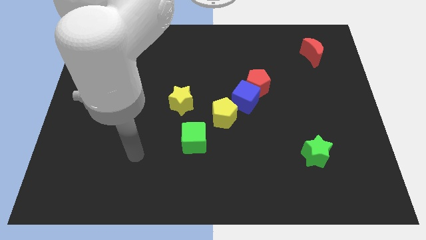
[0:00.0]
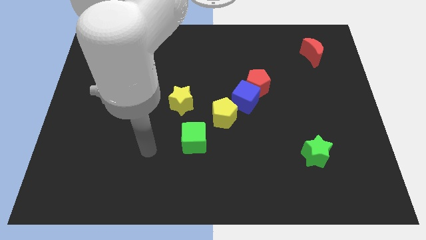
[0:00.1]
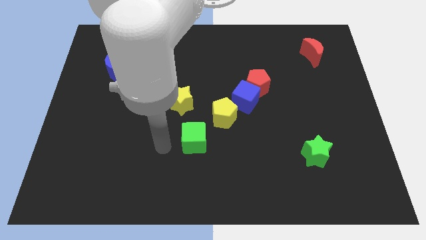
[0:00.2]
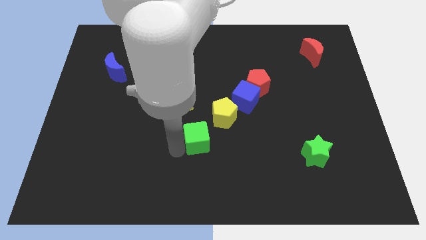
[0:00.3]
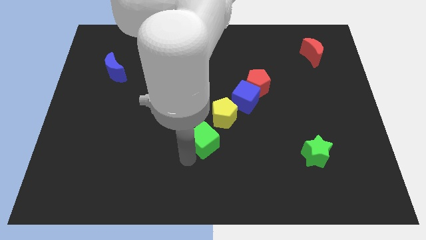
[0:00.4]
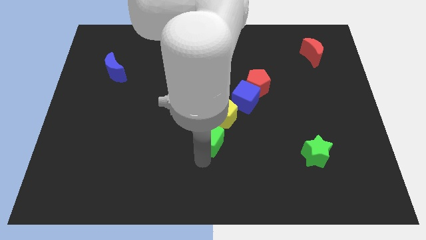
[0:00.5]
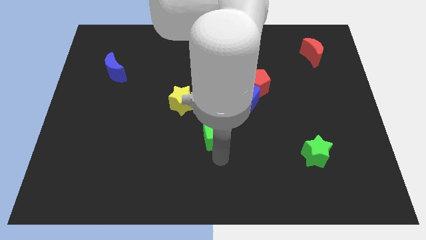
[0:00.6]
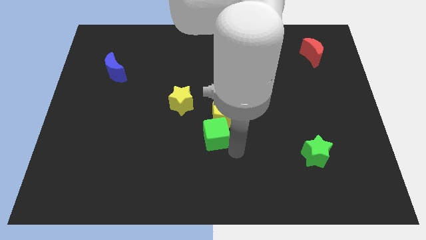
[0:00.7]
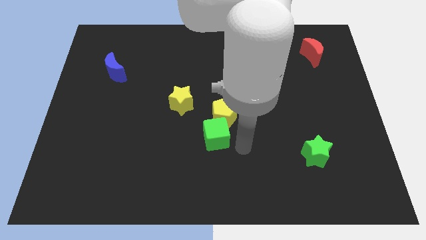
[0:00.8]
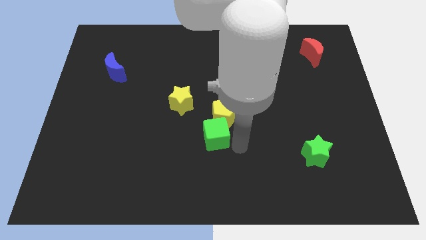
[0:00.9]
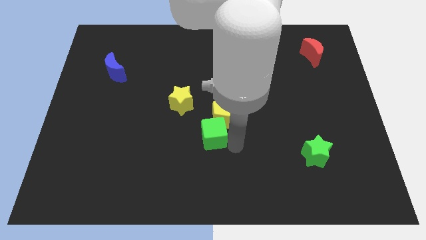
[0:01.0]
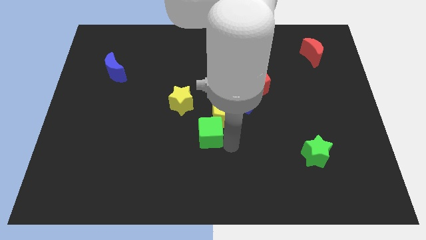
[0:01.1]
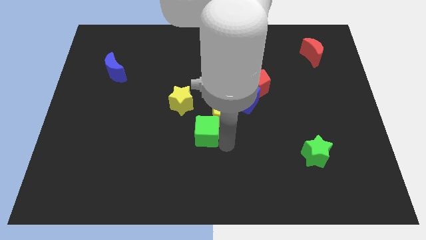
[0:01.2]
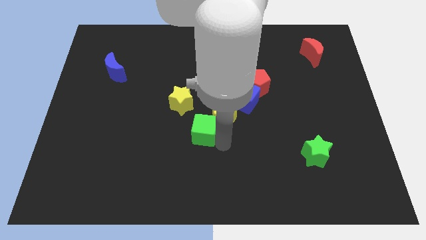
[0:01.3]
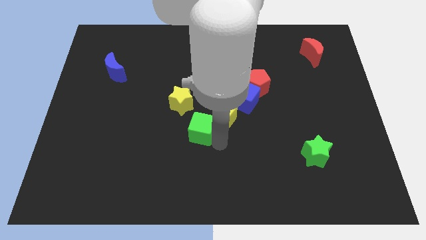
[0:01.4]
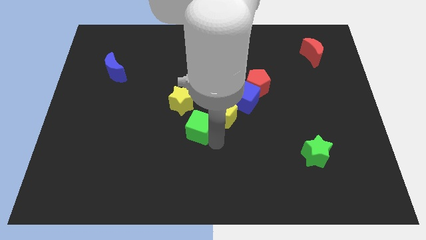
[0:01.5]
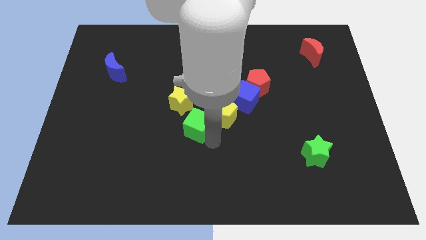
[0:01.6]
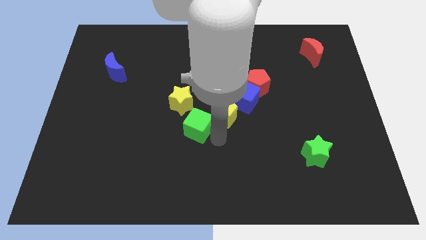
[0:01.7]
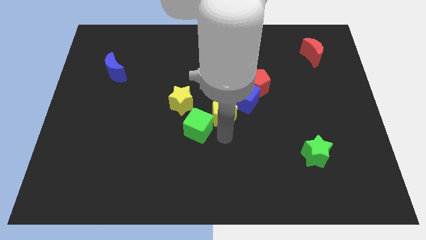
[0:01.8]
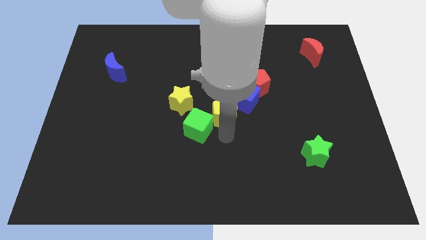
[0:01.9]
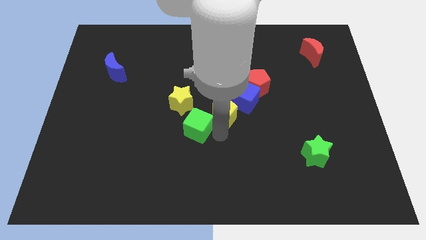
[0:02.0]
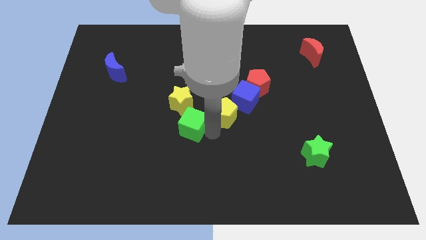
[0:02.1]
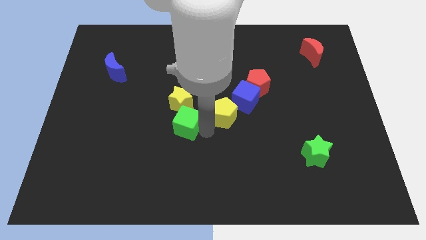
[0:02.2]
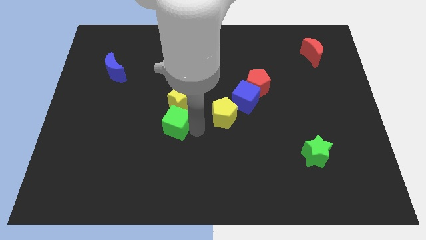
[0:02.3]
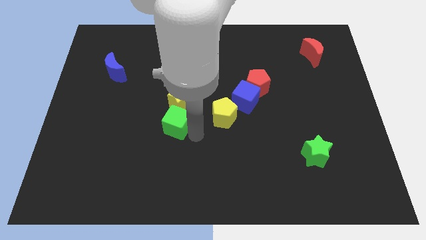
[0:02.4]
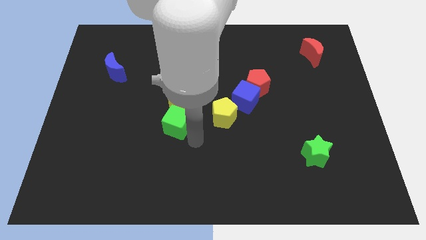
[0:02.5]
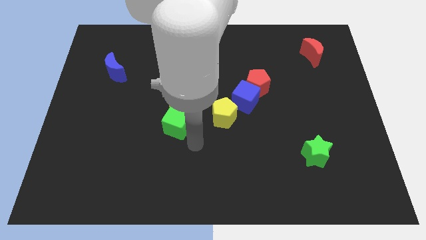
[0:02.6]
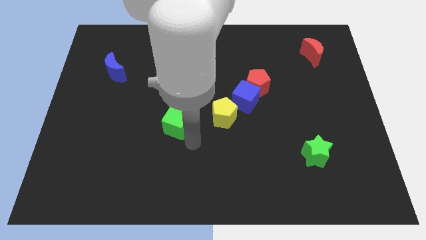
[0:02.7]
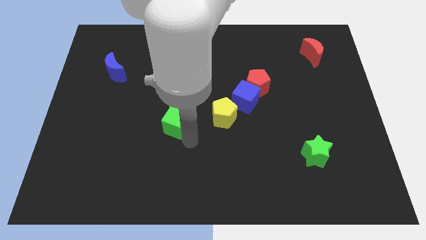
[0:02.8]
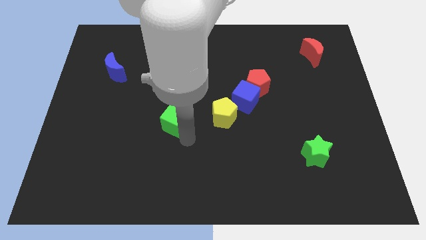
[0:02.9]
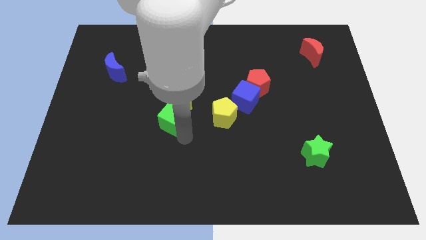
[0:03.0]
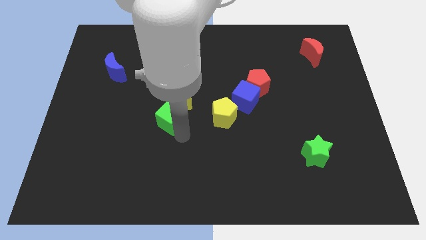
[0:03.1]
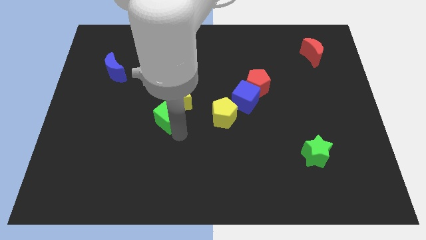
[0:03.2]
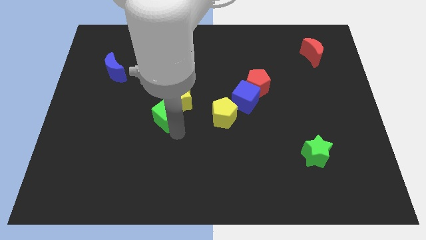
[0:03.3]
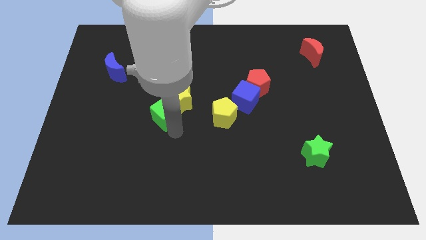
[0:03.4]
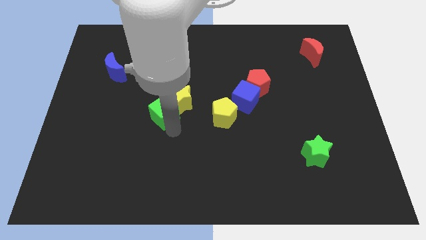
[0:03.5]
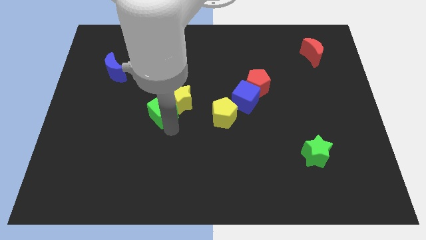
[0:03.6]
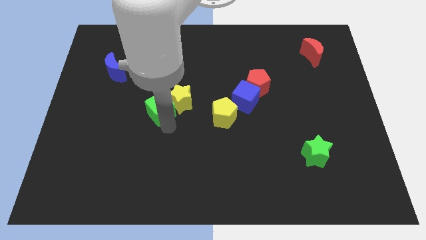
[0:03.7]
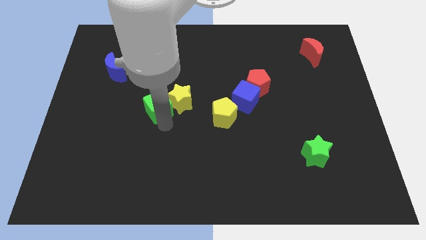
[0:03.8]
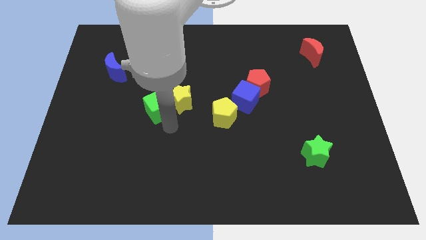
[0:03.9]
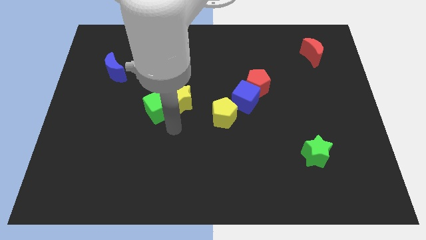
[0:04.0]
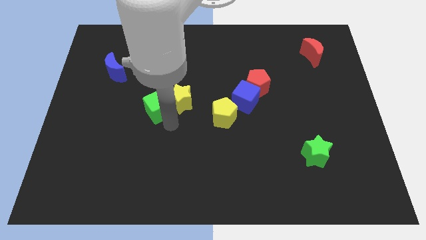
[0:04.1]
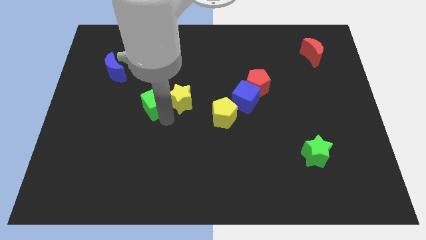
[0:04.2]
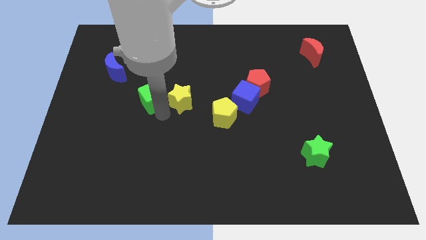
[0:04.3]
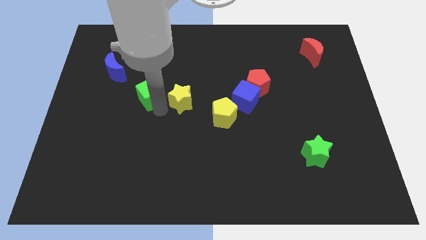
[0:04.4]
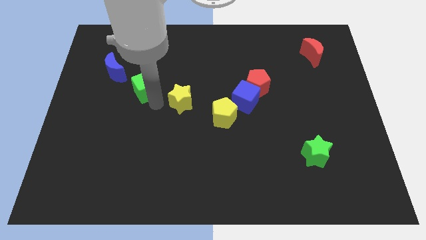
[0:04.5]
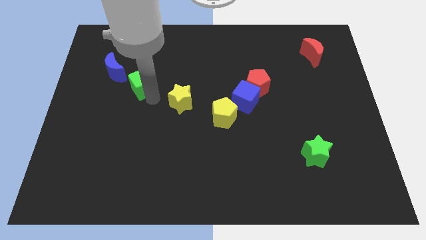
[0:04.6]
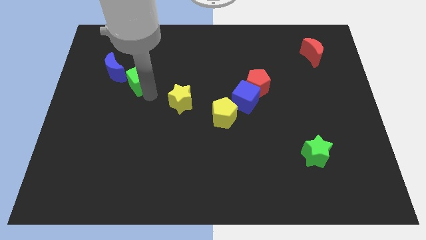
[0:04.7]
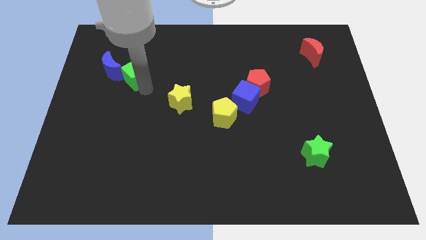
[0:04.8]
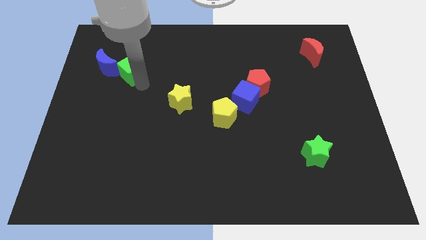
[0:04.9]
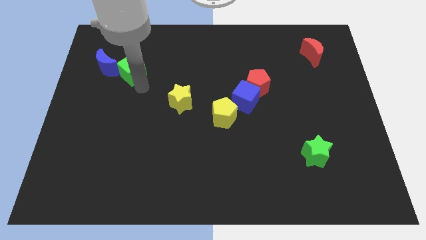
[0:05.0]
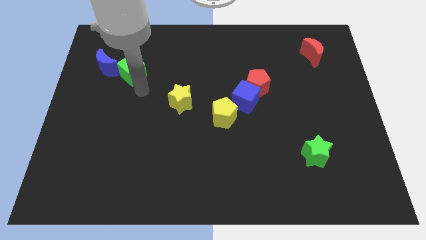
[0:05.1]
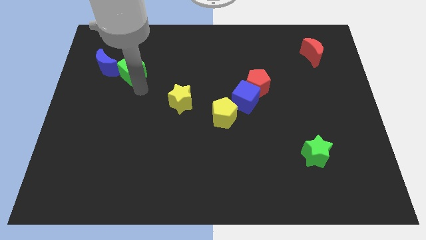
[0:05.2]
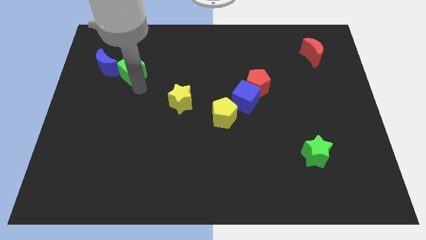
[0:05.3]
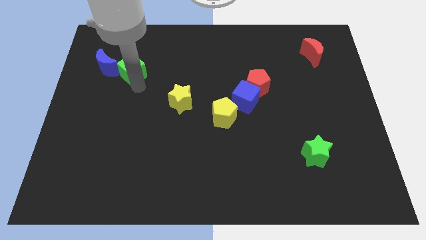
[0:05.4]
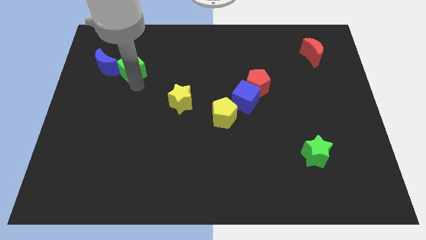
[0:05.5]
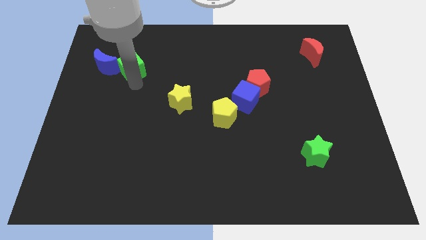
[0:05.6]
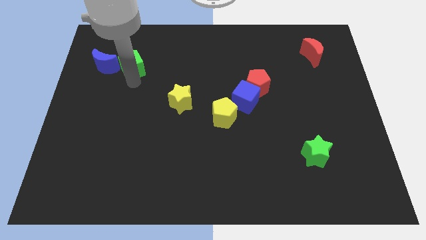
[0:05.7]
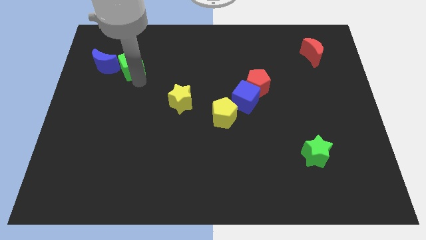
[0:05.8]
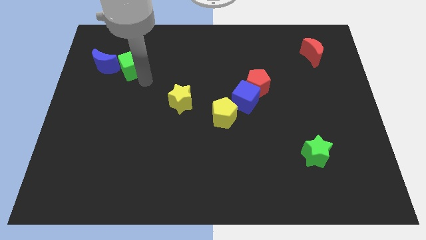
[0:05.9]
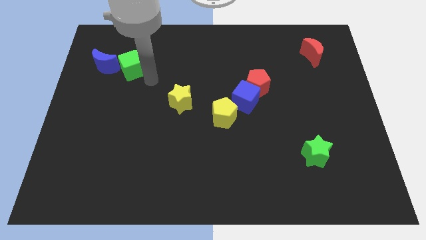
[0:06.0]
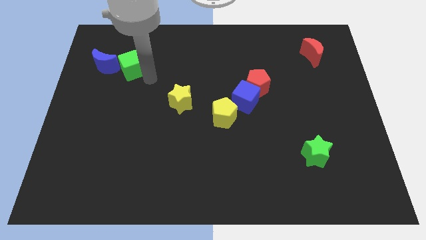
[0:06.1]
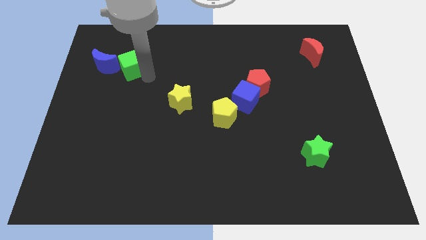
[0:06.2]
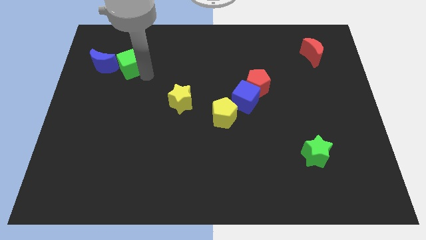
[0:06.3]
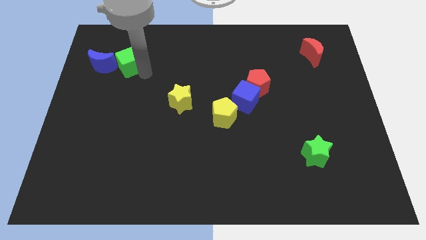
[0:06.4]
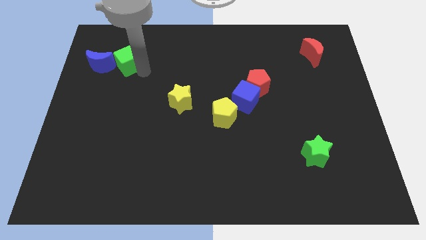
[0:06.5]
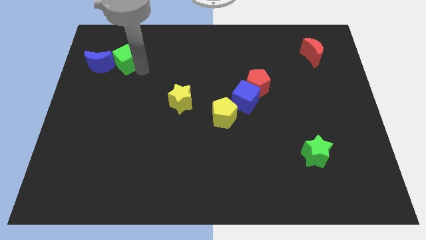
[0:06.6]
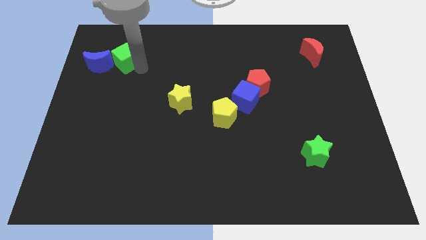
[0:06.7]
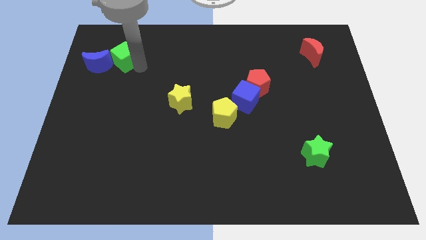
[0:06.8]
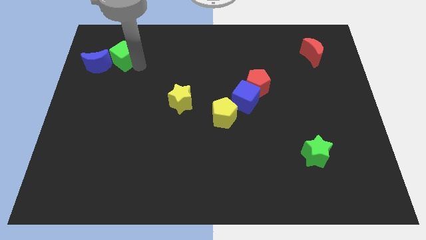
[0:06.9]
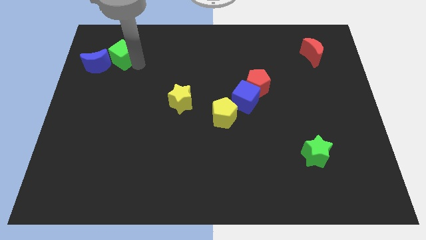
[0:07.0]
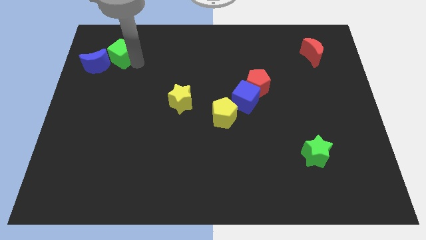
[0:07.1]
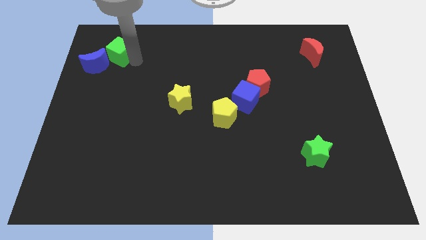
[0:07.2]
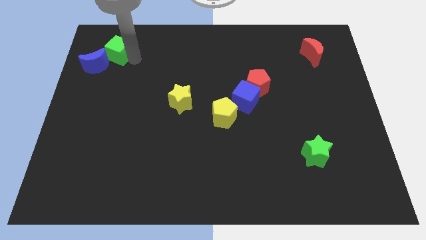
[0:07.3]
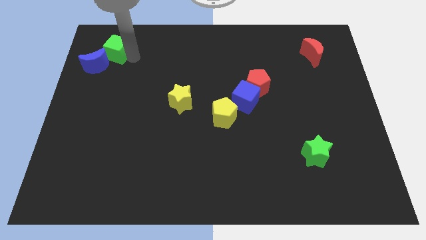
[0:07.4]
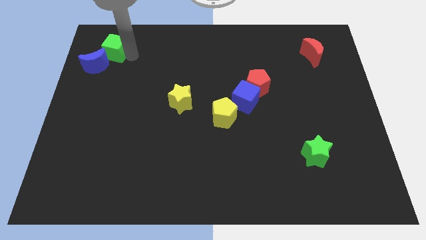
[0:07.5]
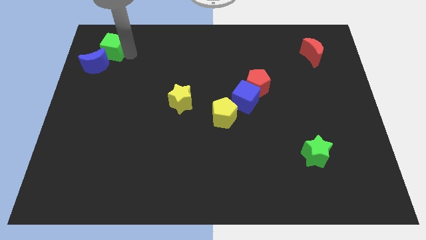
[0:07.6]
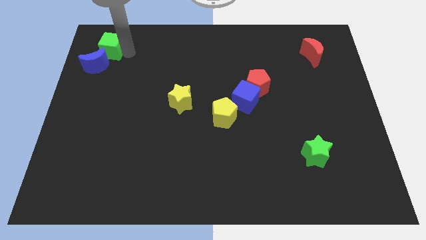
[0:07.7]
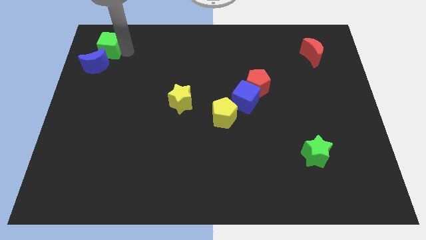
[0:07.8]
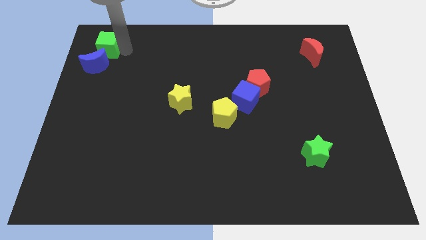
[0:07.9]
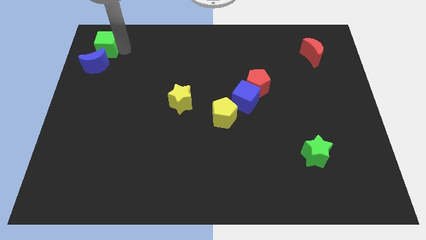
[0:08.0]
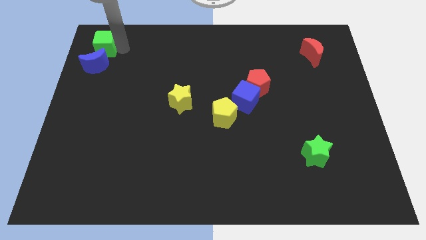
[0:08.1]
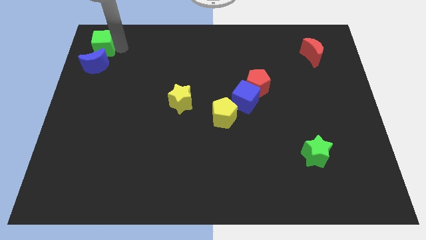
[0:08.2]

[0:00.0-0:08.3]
slide the green cube to the top left corner
